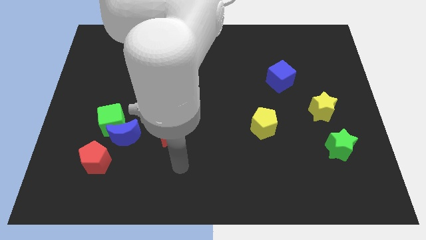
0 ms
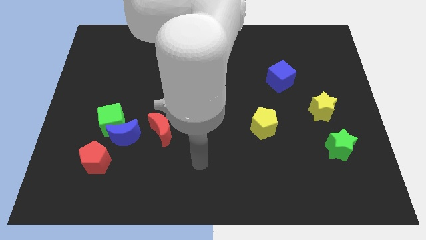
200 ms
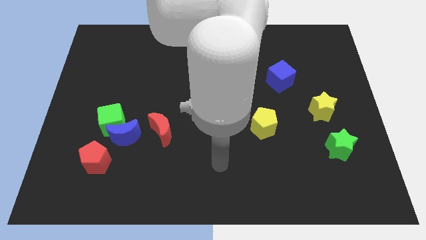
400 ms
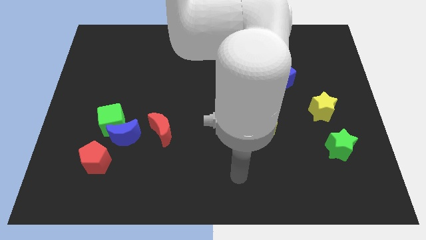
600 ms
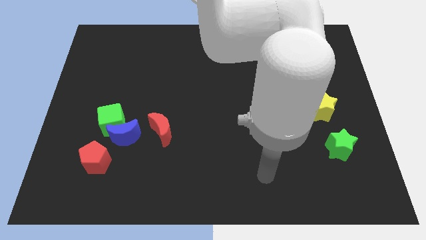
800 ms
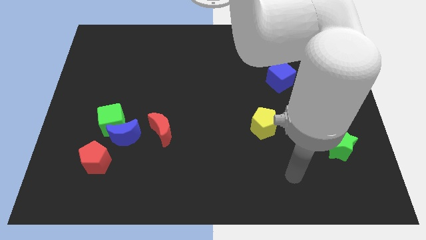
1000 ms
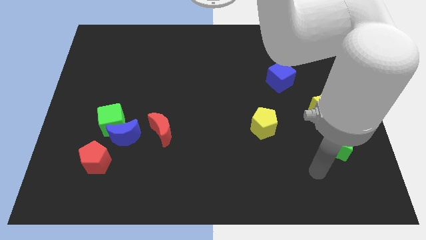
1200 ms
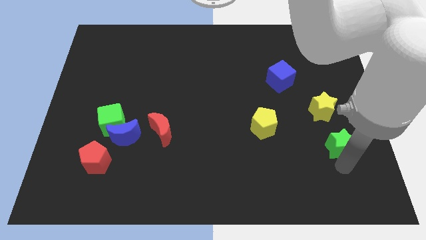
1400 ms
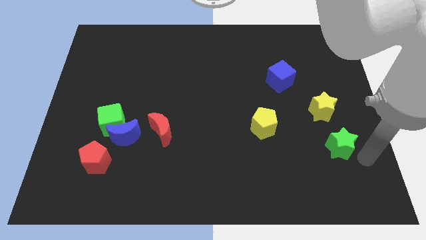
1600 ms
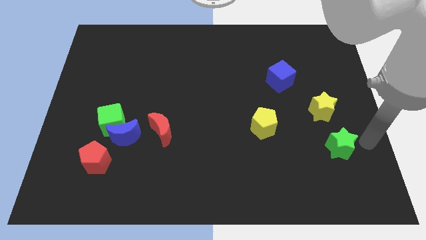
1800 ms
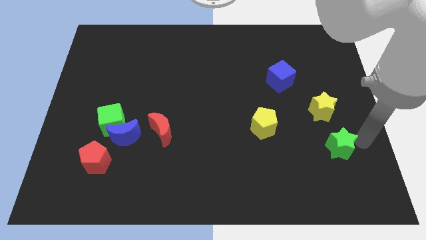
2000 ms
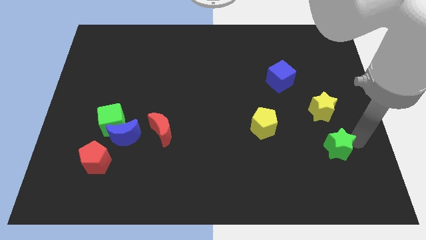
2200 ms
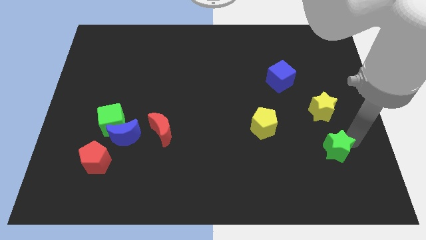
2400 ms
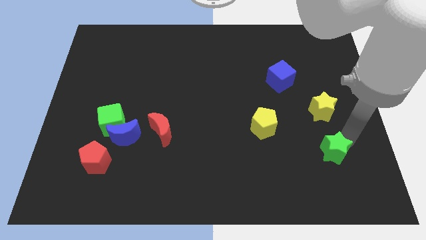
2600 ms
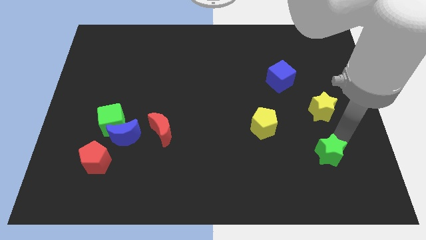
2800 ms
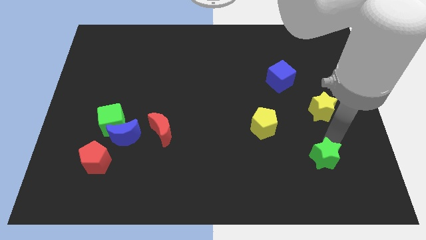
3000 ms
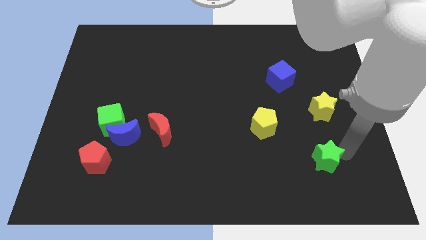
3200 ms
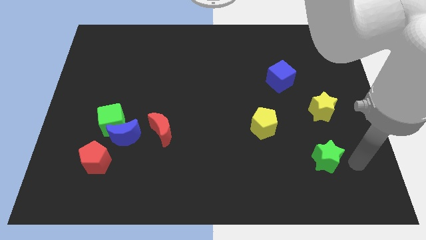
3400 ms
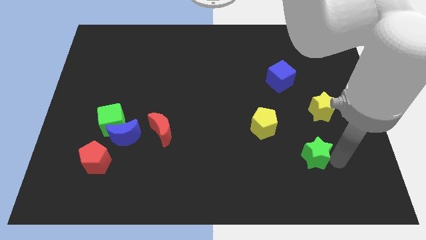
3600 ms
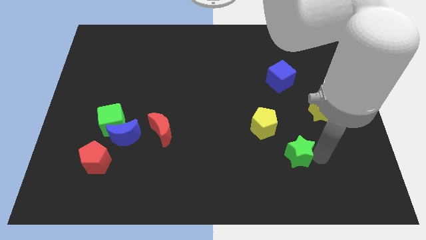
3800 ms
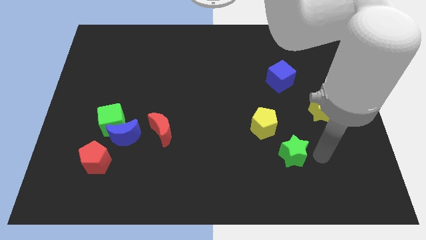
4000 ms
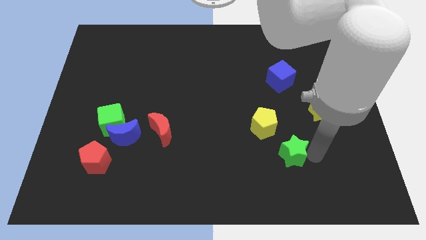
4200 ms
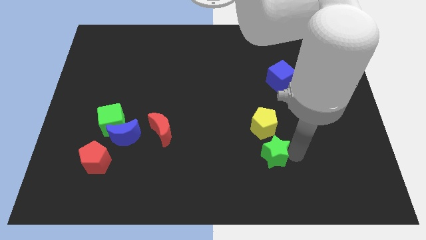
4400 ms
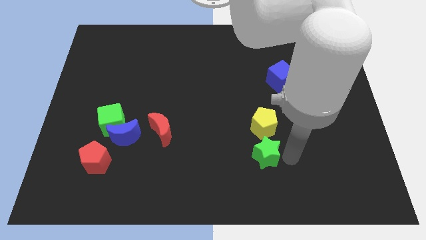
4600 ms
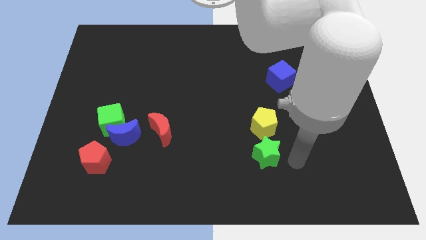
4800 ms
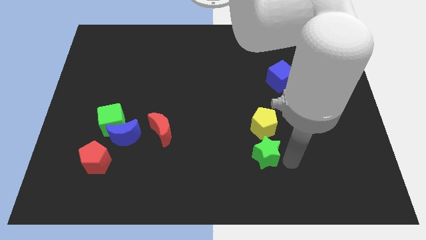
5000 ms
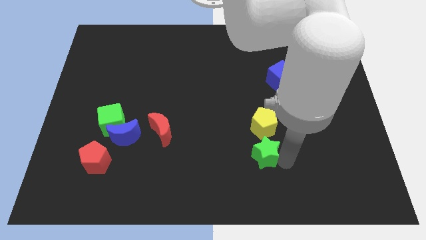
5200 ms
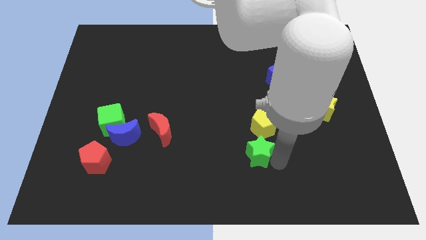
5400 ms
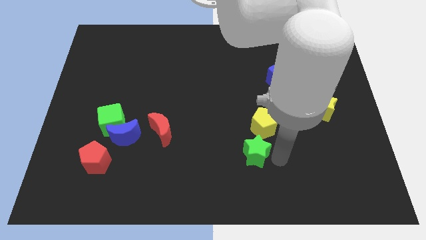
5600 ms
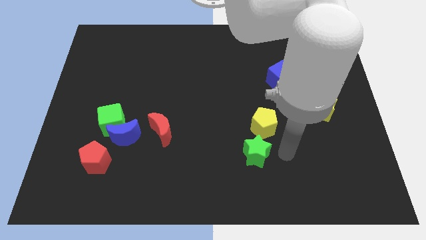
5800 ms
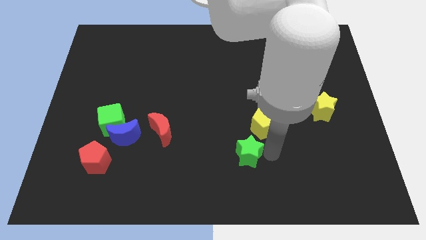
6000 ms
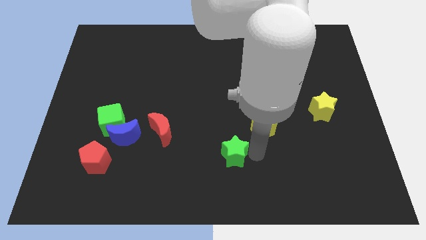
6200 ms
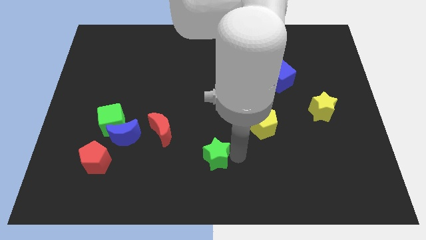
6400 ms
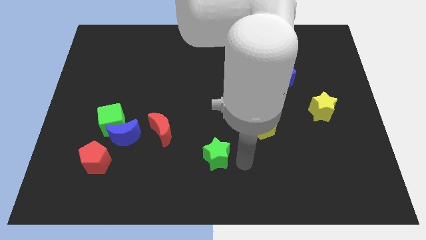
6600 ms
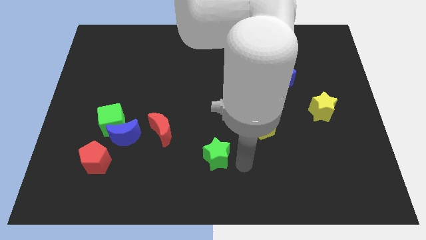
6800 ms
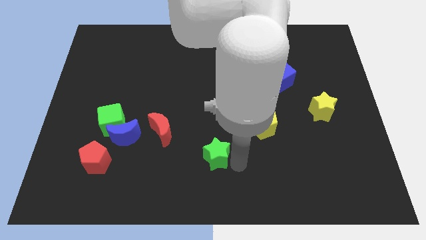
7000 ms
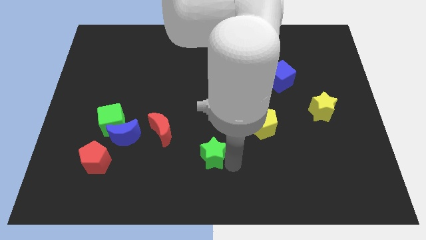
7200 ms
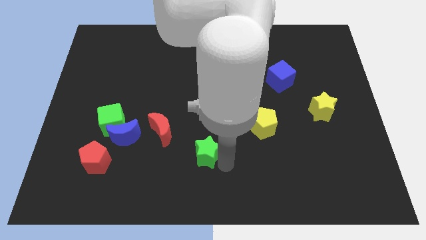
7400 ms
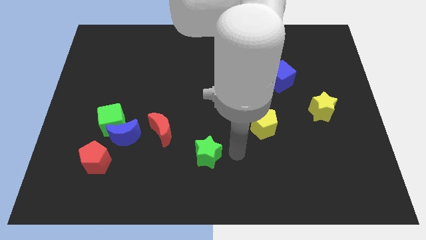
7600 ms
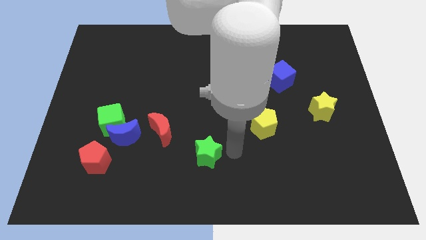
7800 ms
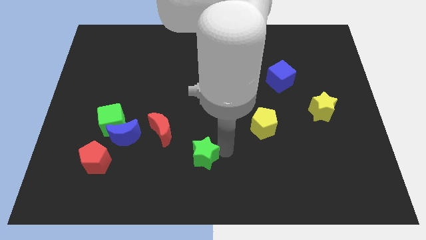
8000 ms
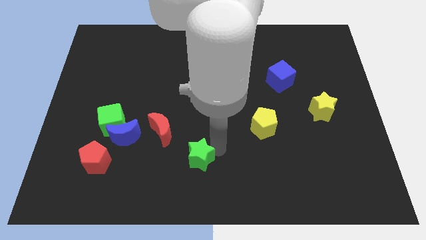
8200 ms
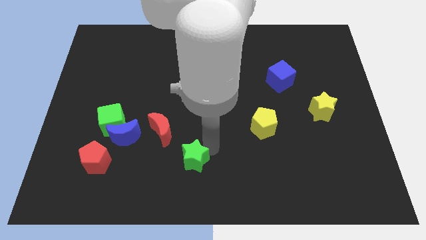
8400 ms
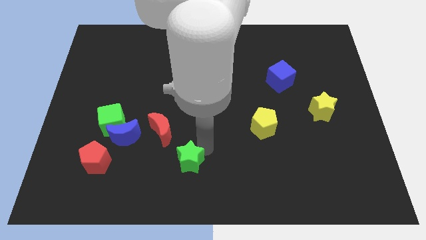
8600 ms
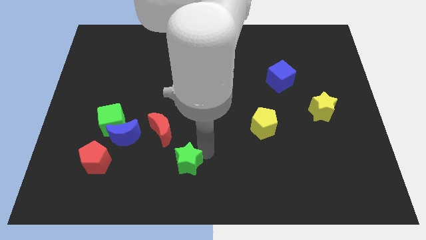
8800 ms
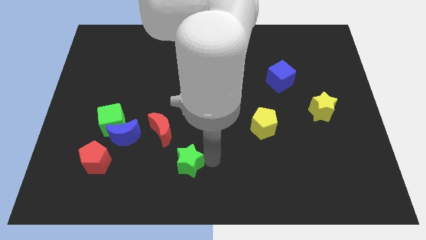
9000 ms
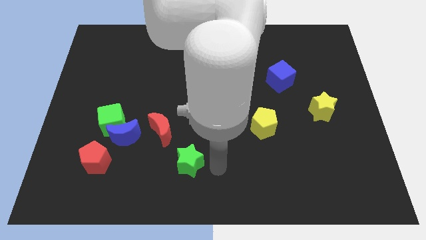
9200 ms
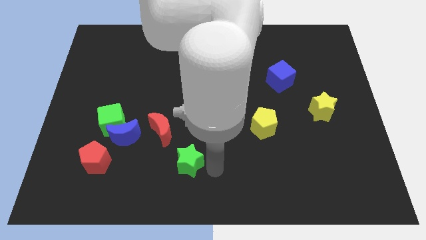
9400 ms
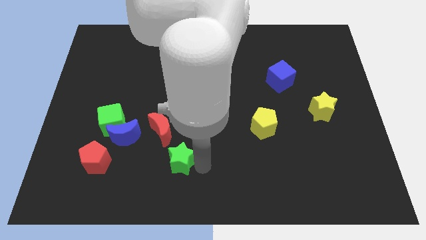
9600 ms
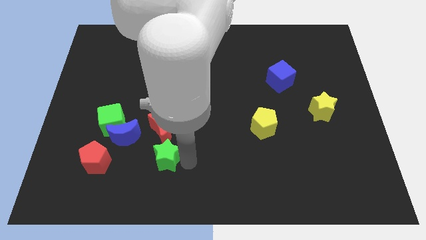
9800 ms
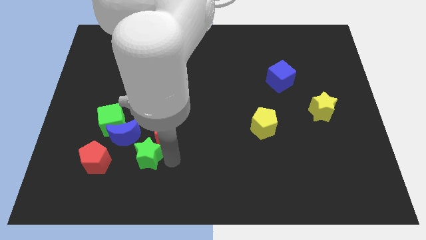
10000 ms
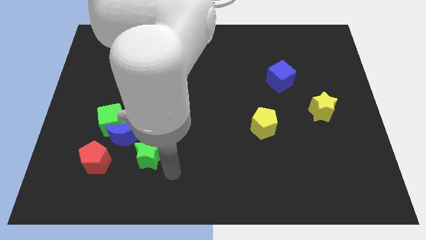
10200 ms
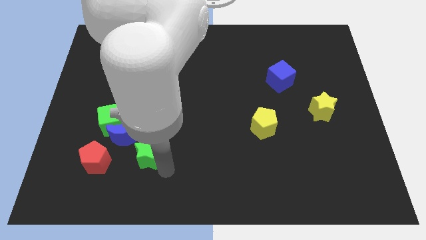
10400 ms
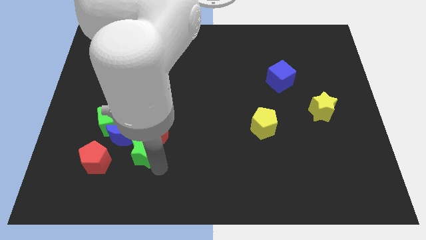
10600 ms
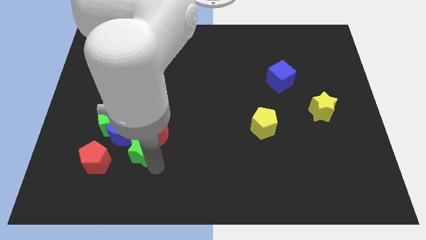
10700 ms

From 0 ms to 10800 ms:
put the green star close to the blue moon

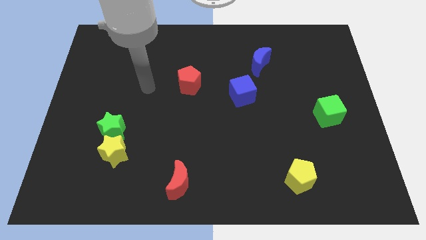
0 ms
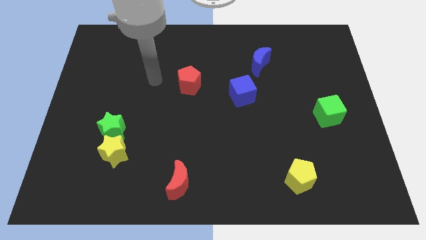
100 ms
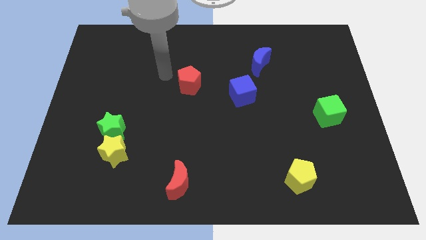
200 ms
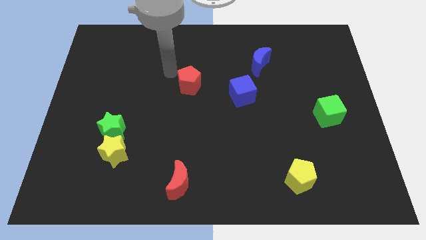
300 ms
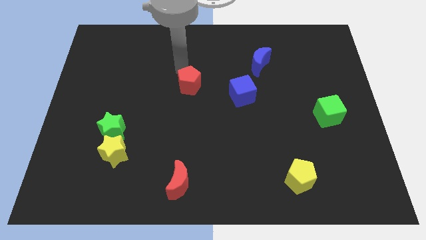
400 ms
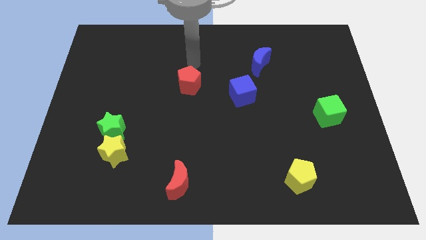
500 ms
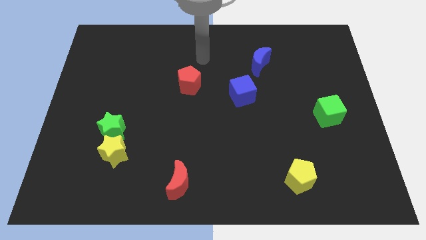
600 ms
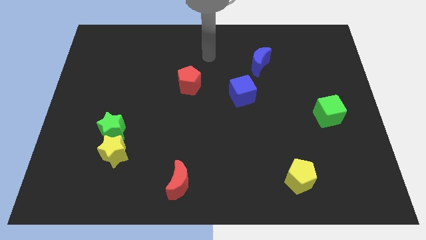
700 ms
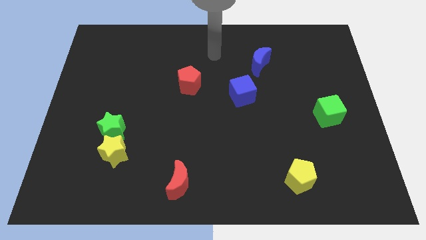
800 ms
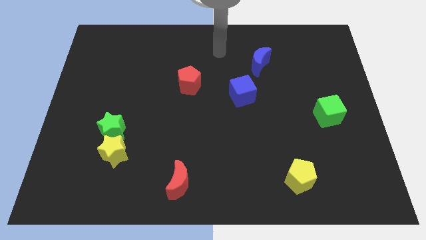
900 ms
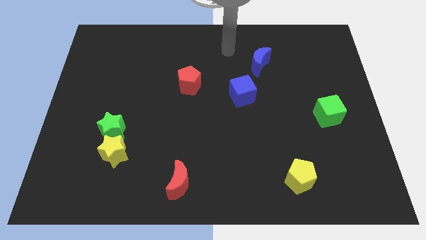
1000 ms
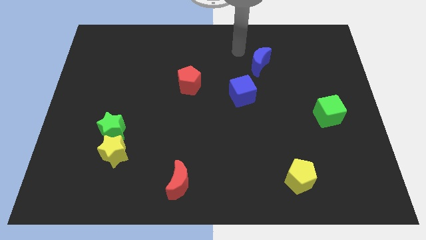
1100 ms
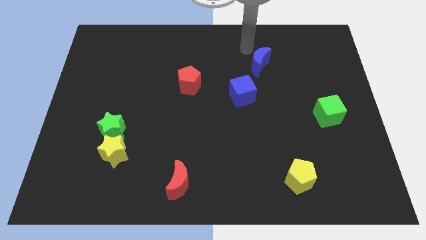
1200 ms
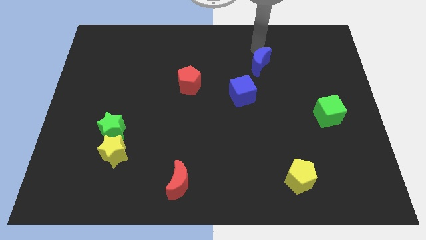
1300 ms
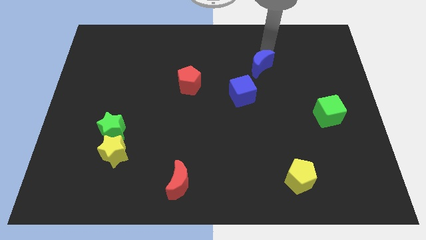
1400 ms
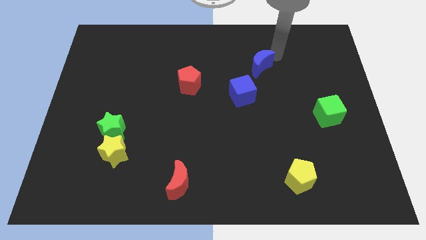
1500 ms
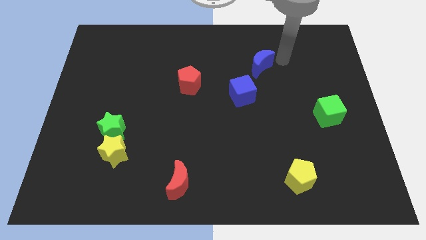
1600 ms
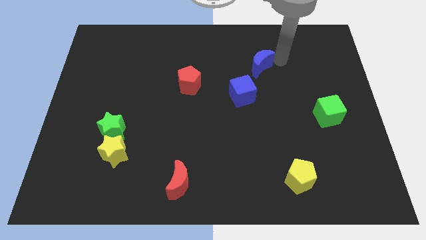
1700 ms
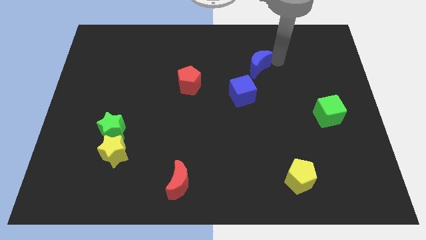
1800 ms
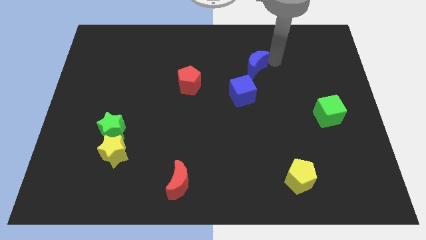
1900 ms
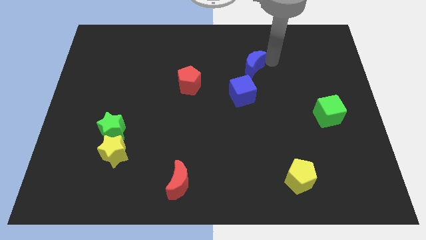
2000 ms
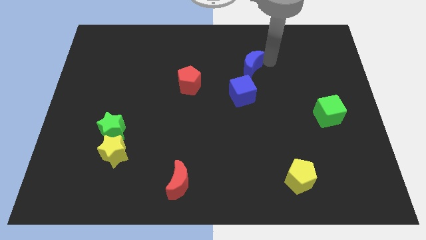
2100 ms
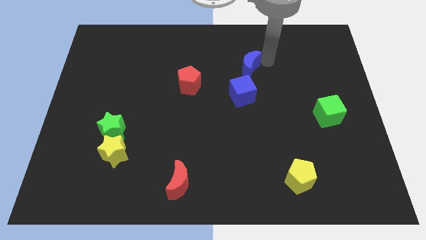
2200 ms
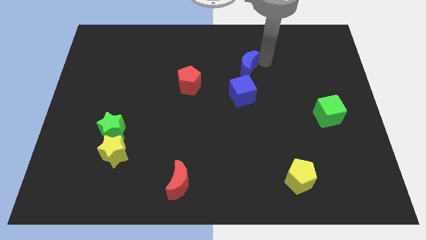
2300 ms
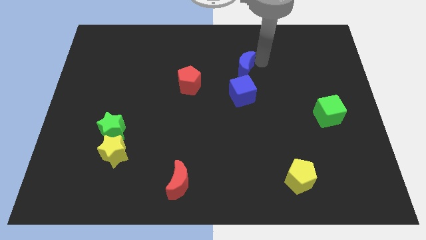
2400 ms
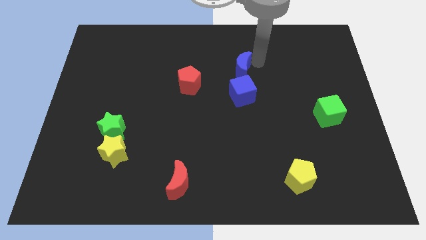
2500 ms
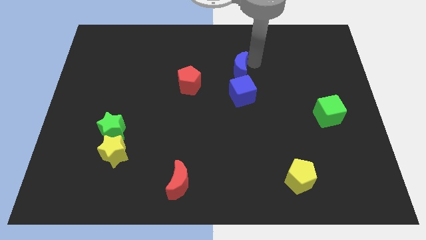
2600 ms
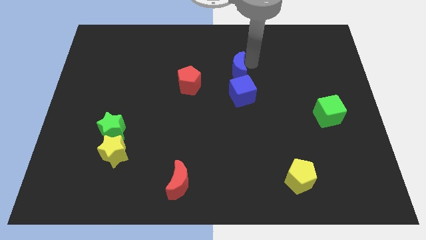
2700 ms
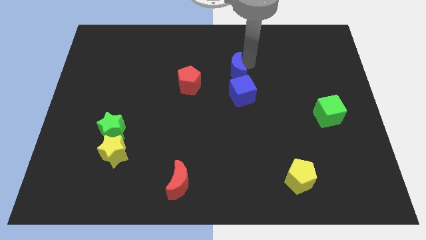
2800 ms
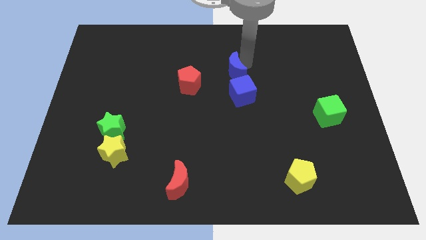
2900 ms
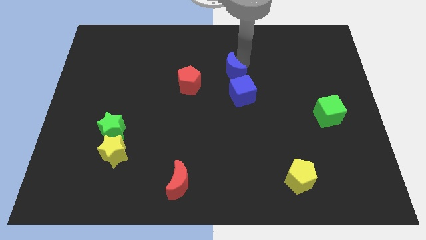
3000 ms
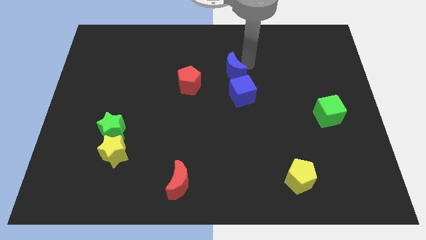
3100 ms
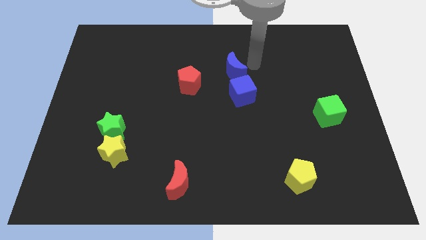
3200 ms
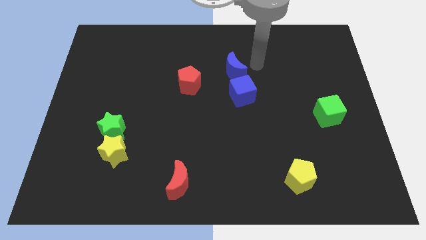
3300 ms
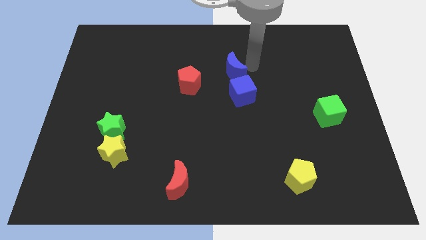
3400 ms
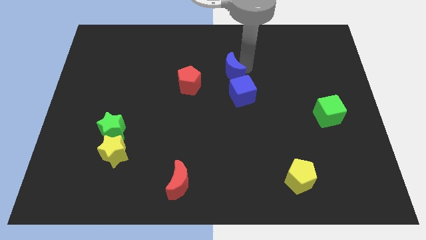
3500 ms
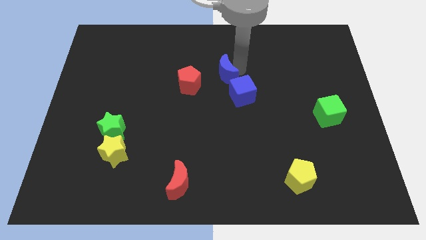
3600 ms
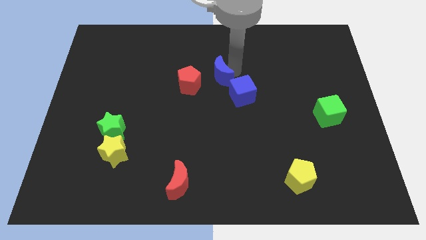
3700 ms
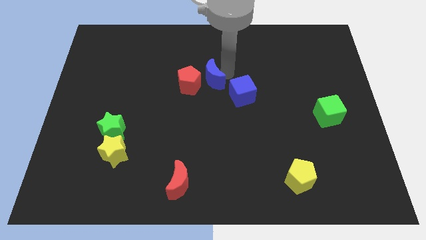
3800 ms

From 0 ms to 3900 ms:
push the blue moon next to the red pentagon
